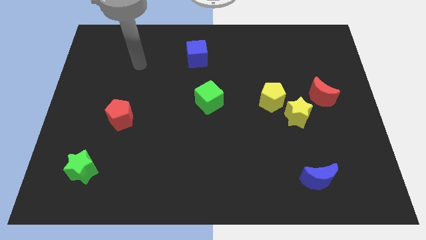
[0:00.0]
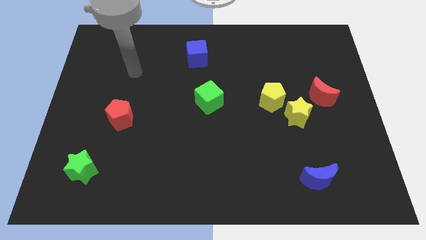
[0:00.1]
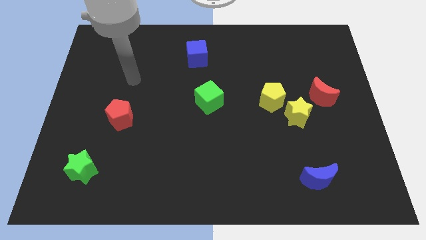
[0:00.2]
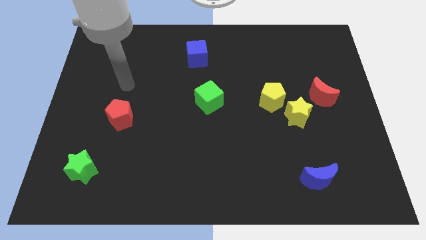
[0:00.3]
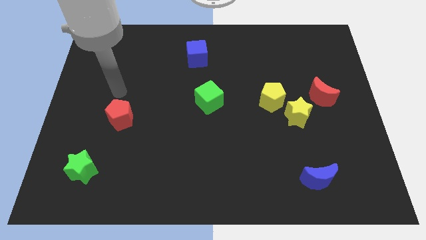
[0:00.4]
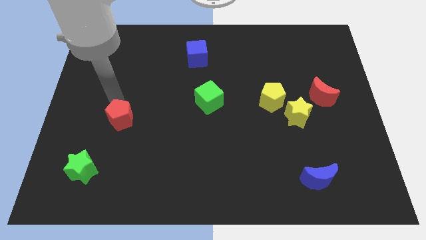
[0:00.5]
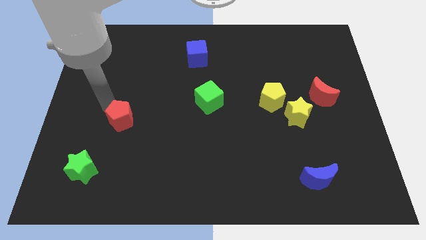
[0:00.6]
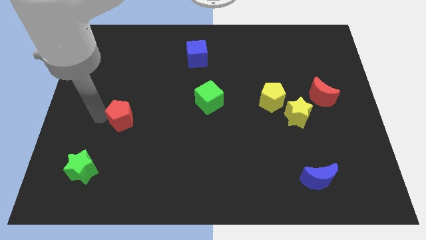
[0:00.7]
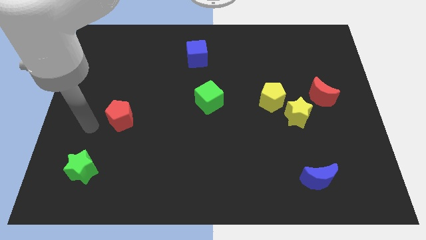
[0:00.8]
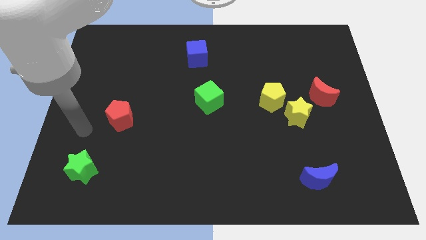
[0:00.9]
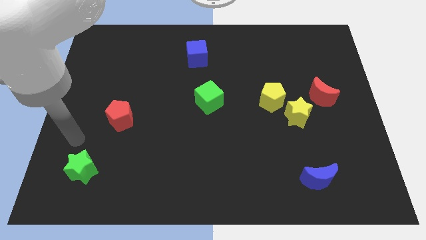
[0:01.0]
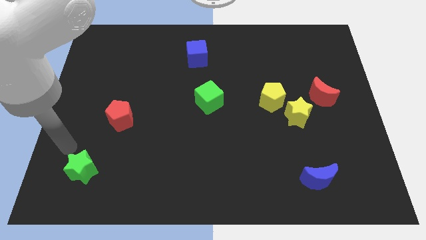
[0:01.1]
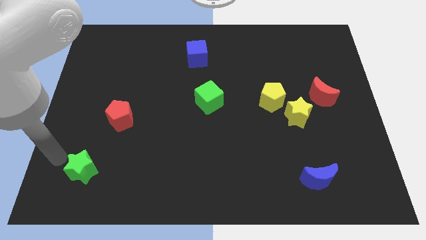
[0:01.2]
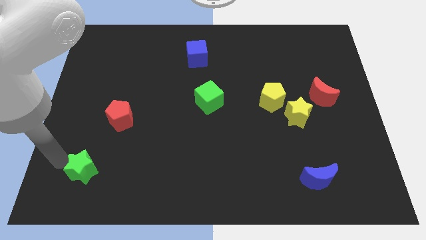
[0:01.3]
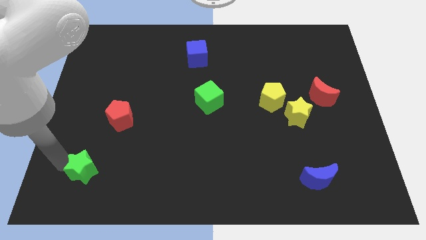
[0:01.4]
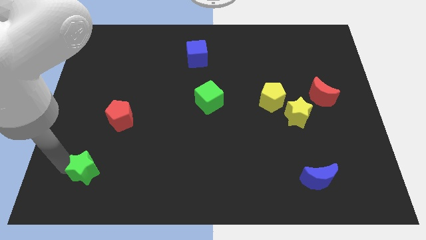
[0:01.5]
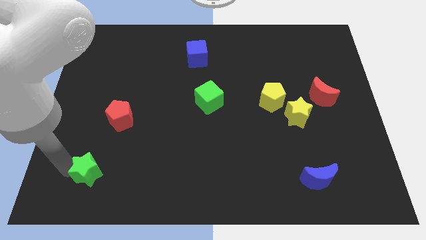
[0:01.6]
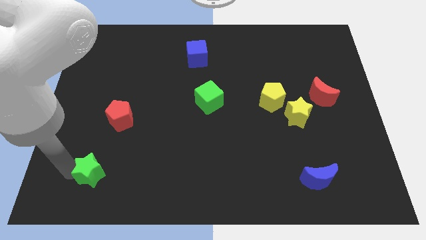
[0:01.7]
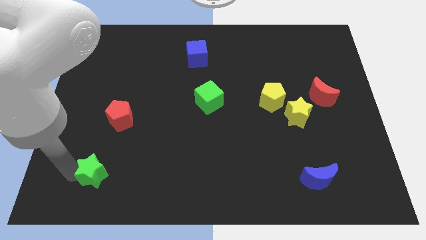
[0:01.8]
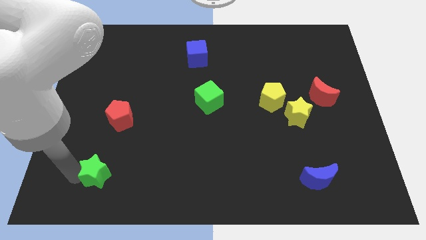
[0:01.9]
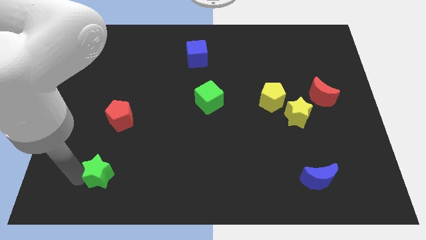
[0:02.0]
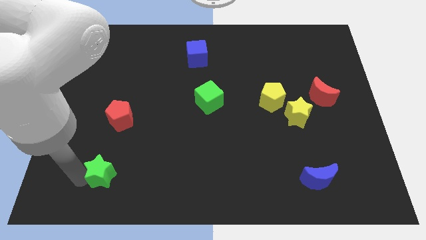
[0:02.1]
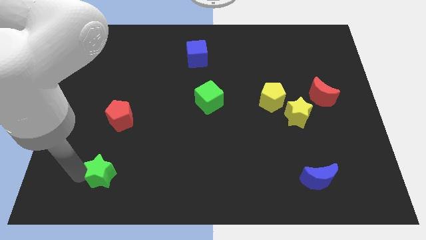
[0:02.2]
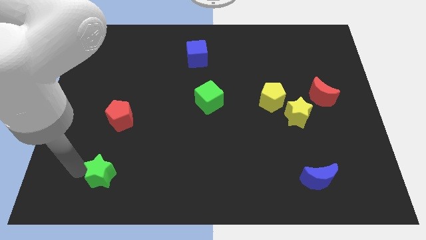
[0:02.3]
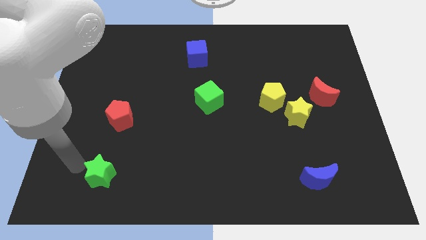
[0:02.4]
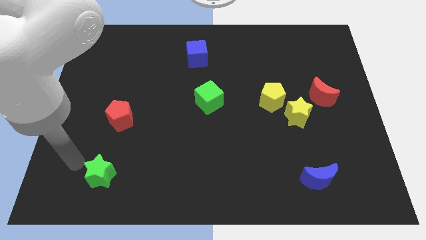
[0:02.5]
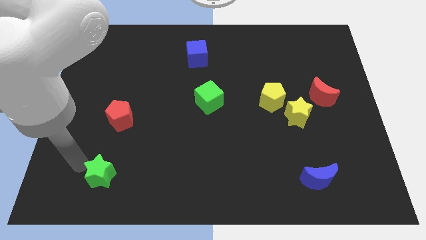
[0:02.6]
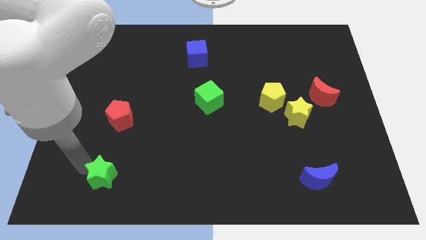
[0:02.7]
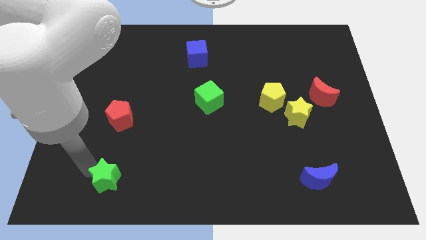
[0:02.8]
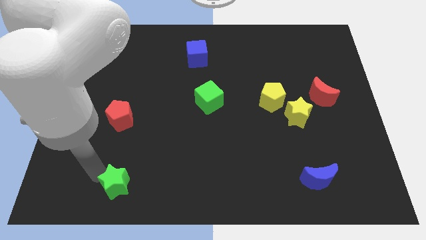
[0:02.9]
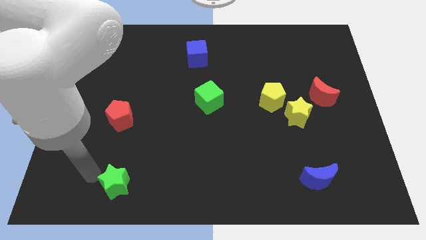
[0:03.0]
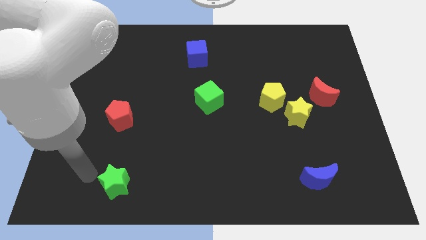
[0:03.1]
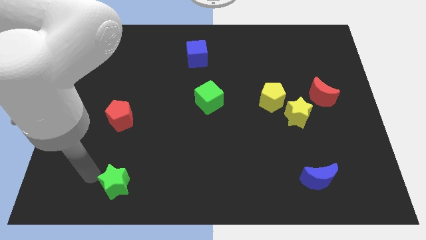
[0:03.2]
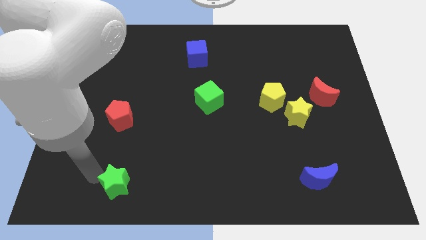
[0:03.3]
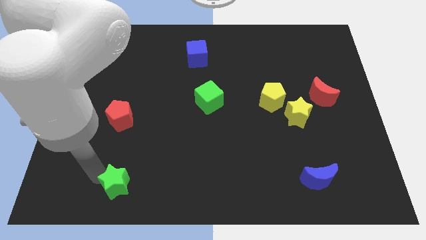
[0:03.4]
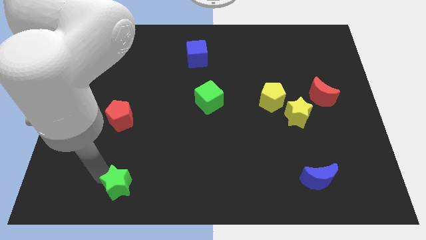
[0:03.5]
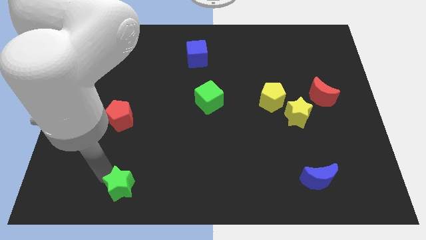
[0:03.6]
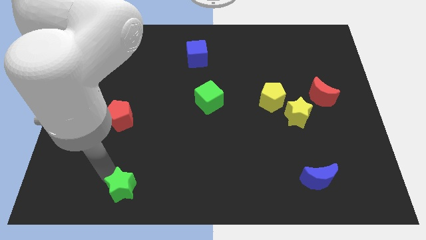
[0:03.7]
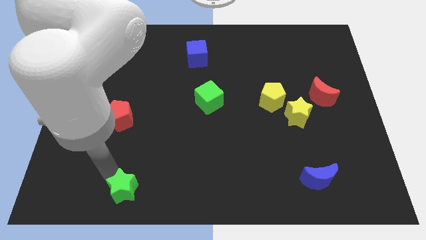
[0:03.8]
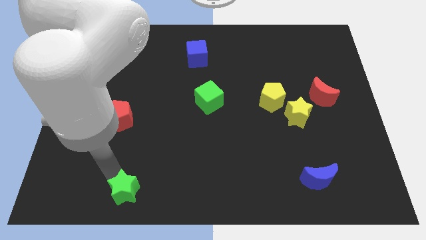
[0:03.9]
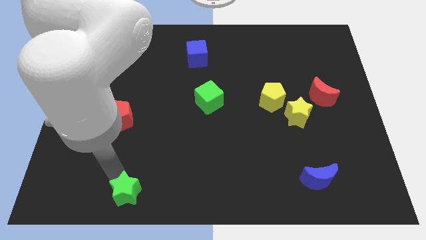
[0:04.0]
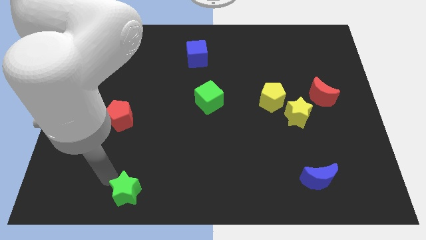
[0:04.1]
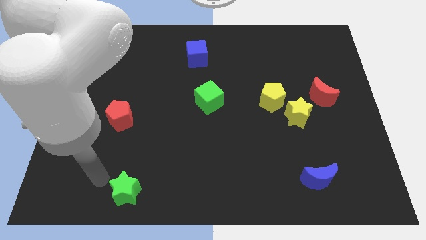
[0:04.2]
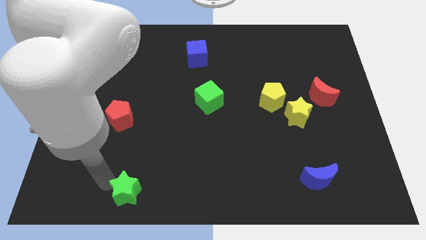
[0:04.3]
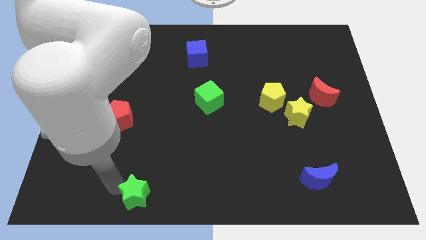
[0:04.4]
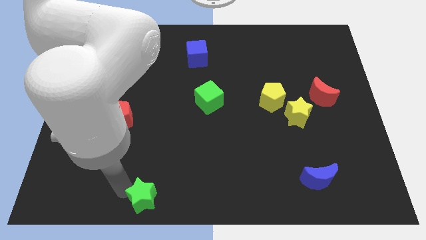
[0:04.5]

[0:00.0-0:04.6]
put the green star to the bottom side

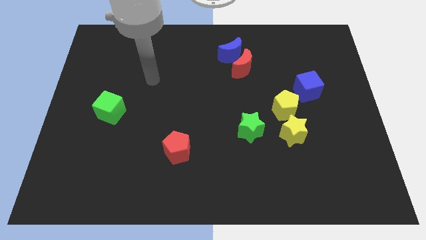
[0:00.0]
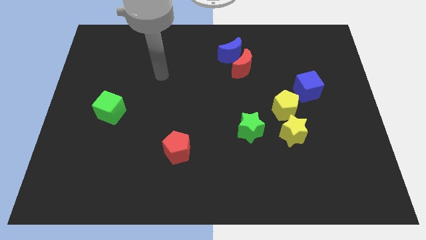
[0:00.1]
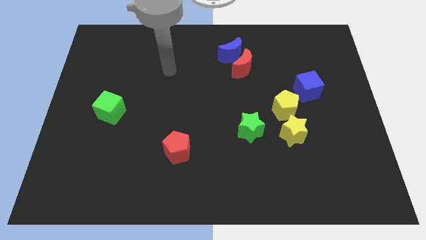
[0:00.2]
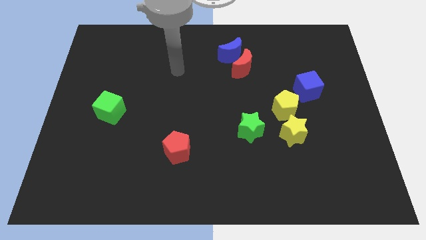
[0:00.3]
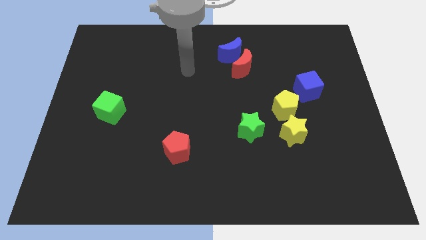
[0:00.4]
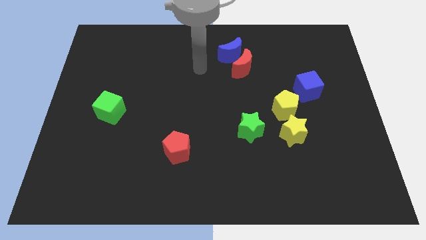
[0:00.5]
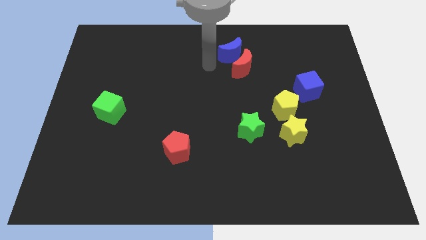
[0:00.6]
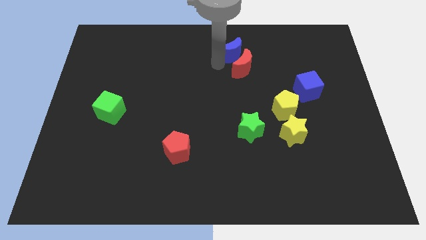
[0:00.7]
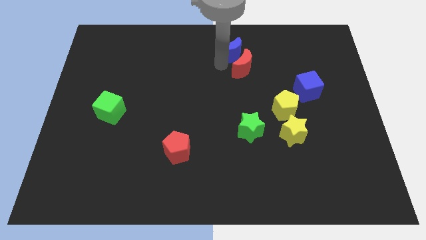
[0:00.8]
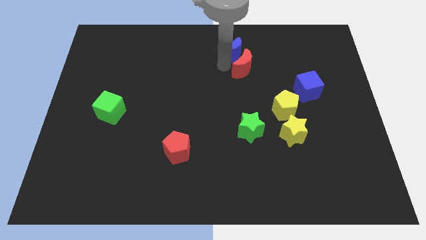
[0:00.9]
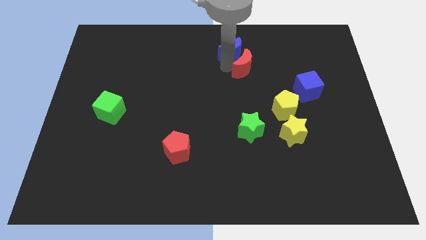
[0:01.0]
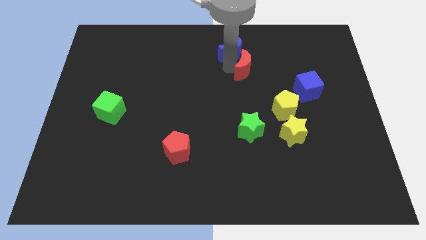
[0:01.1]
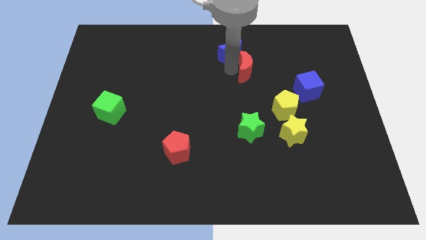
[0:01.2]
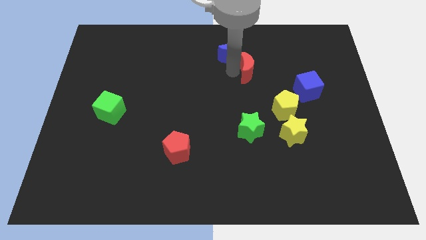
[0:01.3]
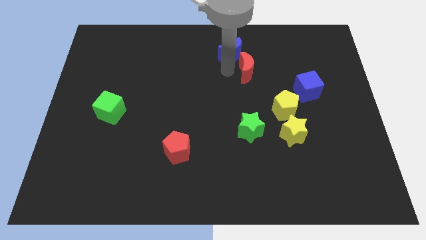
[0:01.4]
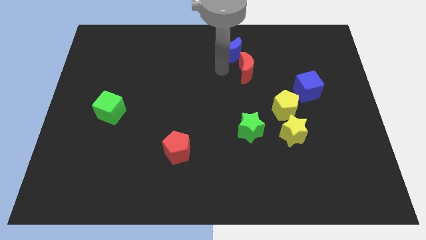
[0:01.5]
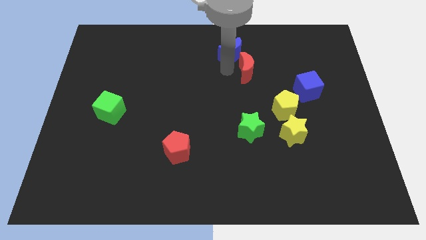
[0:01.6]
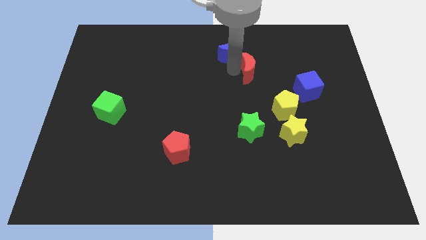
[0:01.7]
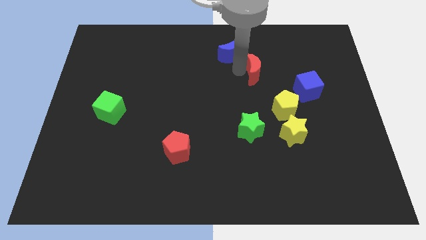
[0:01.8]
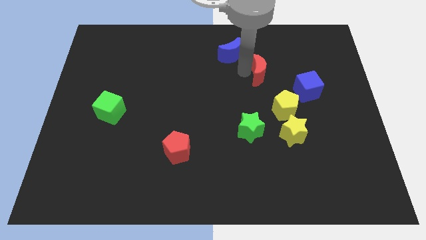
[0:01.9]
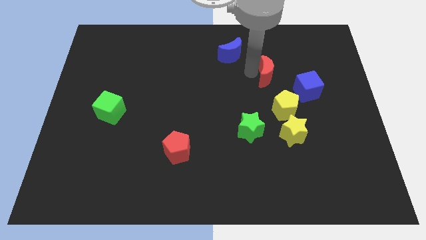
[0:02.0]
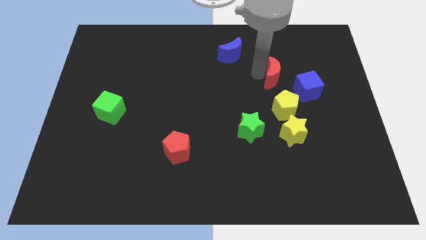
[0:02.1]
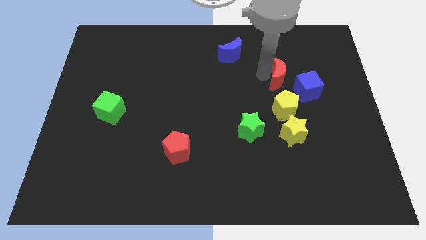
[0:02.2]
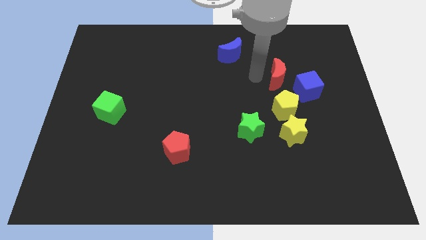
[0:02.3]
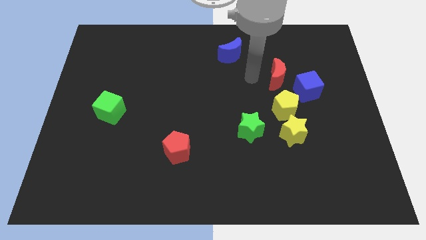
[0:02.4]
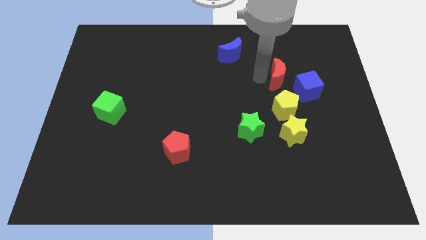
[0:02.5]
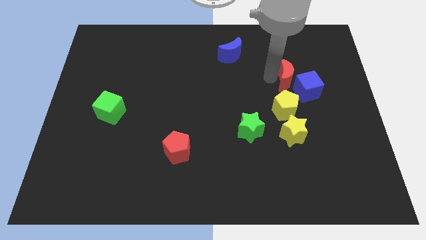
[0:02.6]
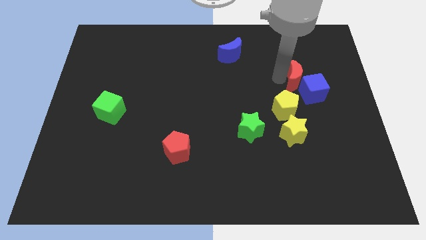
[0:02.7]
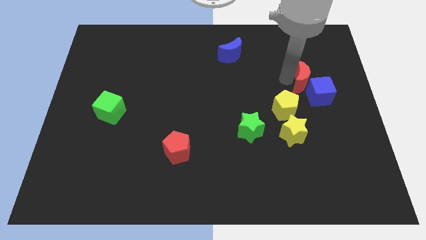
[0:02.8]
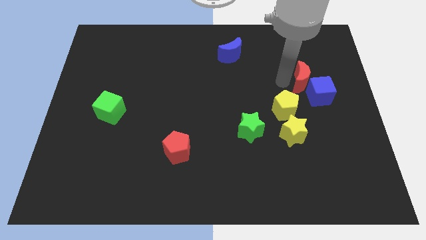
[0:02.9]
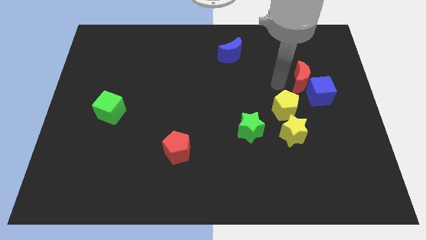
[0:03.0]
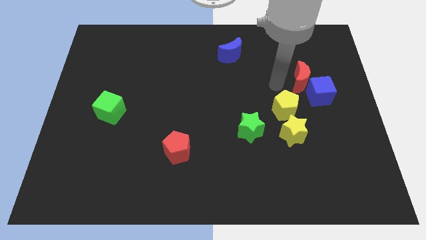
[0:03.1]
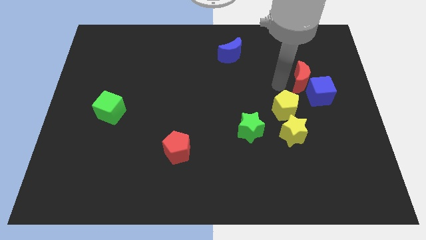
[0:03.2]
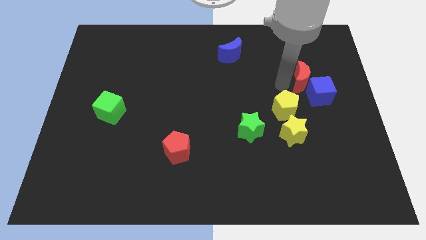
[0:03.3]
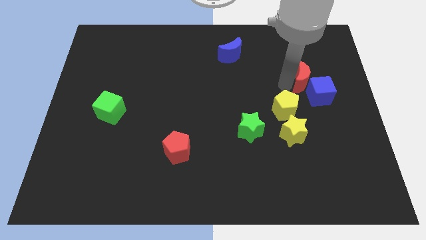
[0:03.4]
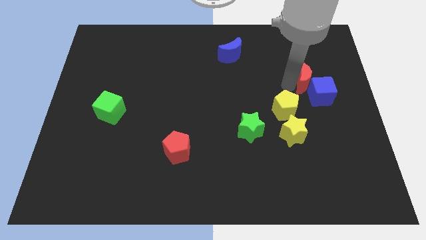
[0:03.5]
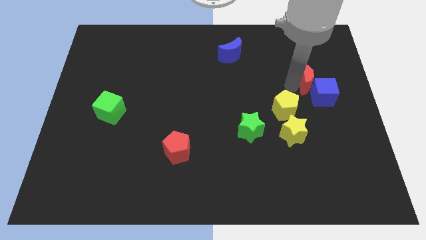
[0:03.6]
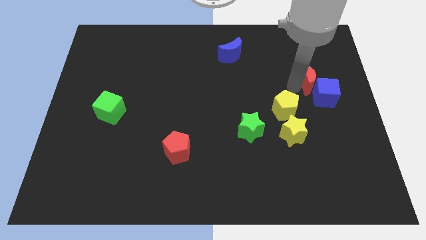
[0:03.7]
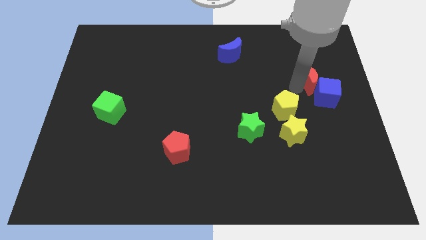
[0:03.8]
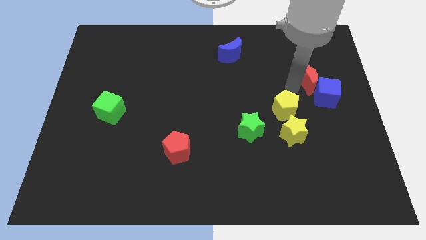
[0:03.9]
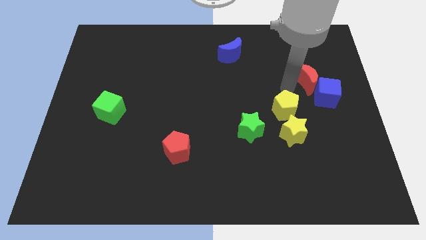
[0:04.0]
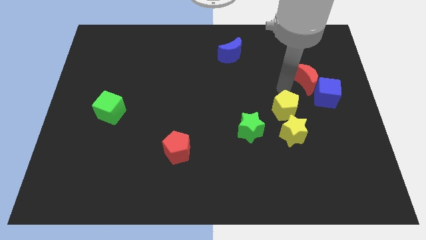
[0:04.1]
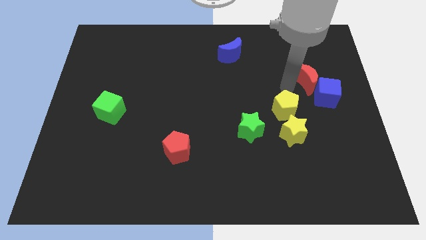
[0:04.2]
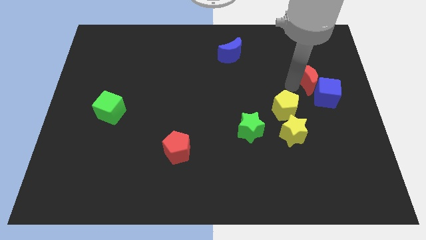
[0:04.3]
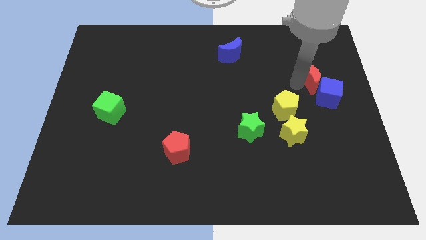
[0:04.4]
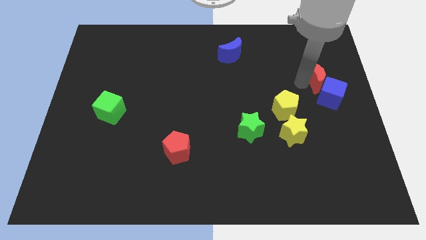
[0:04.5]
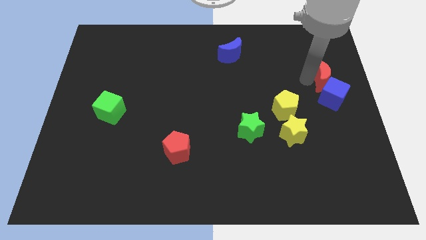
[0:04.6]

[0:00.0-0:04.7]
put the red moon to the center right
